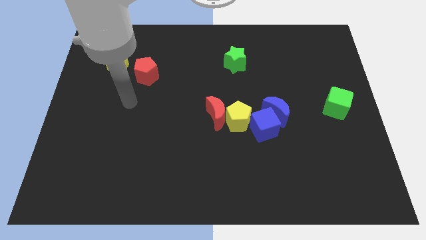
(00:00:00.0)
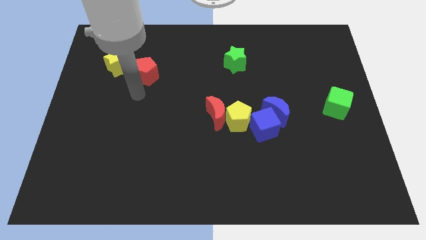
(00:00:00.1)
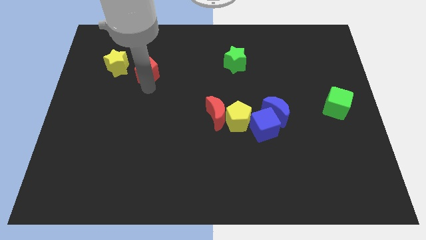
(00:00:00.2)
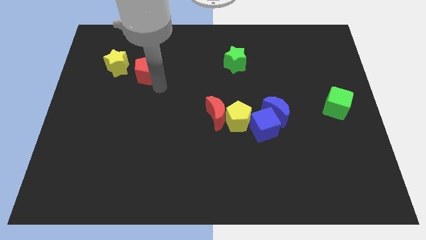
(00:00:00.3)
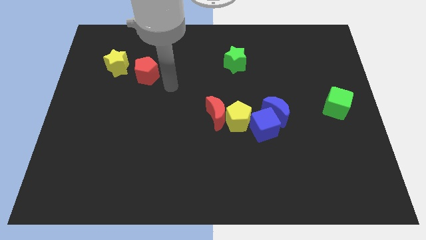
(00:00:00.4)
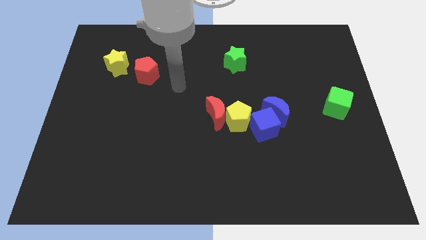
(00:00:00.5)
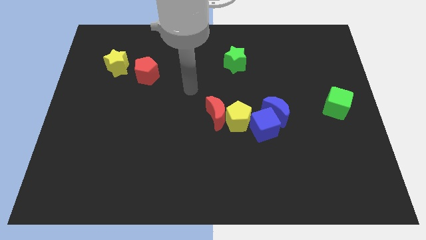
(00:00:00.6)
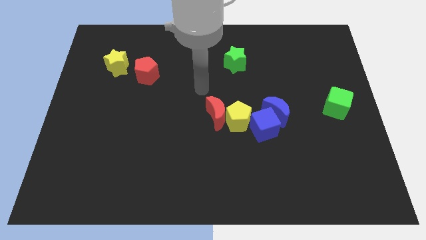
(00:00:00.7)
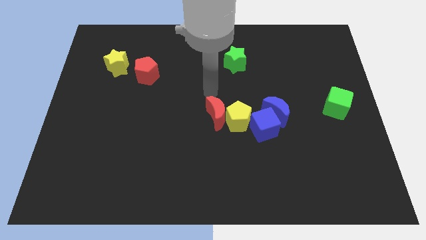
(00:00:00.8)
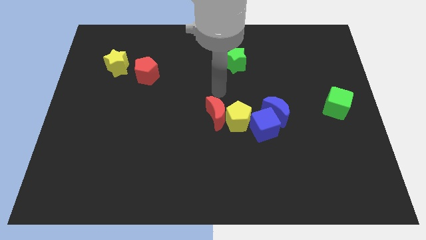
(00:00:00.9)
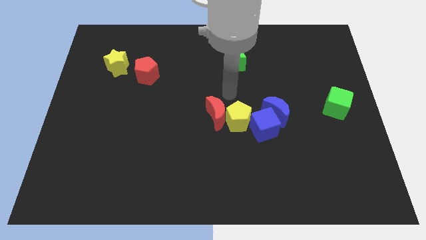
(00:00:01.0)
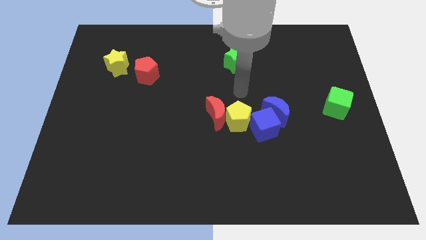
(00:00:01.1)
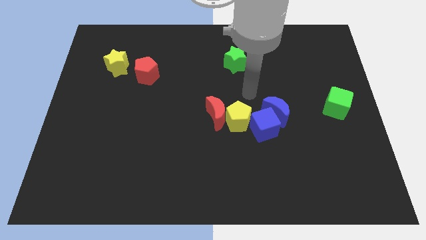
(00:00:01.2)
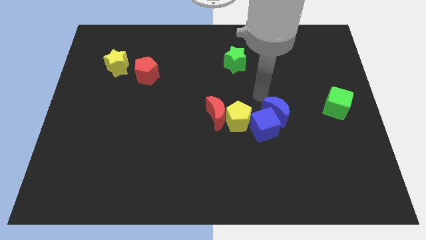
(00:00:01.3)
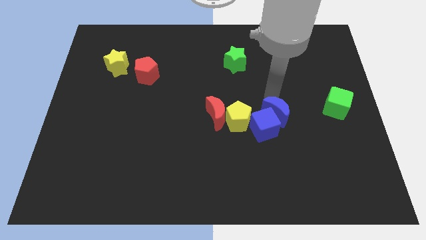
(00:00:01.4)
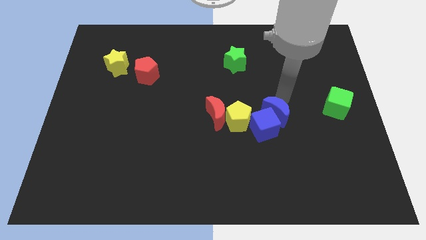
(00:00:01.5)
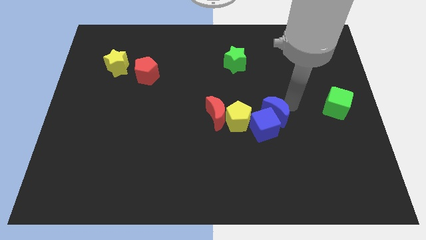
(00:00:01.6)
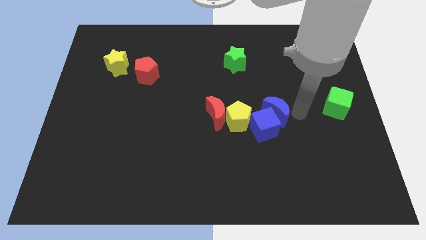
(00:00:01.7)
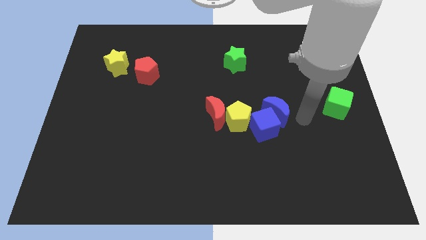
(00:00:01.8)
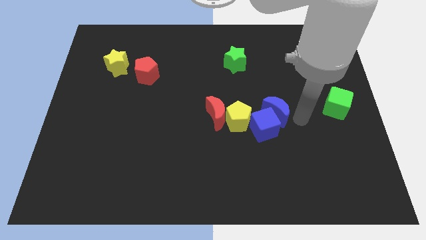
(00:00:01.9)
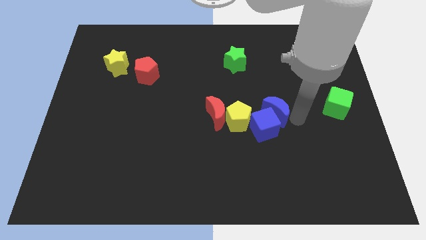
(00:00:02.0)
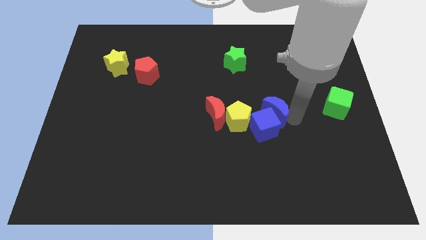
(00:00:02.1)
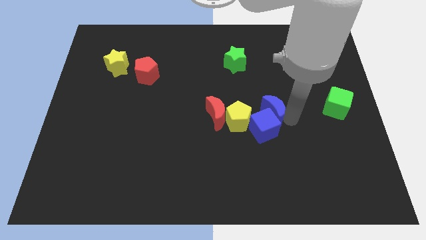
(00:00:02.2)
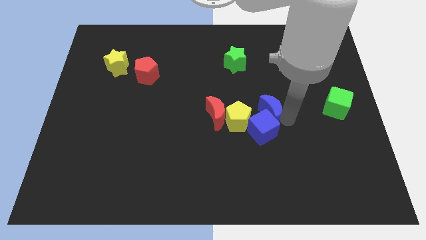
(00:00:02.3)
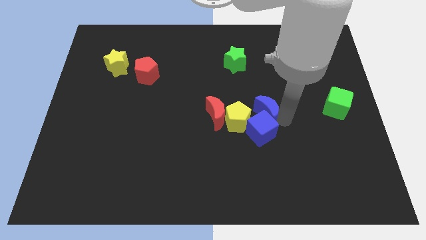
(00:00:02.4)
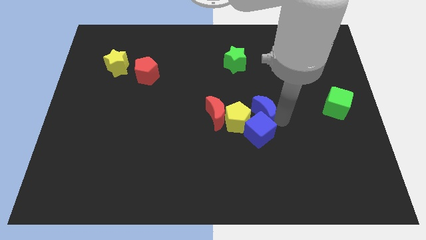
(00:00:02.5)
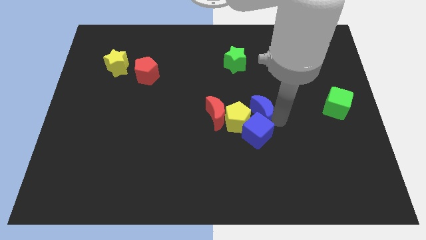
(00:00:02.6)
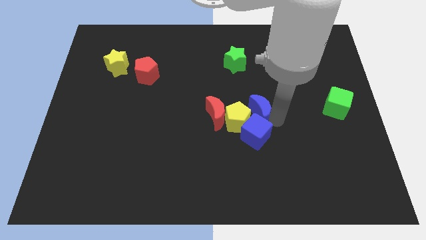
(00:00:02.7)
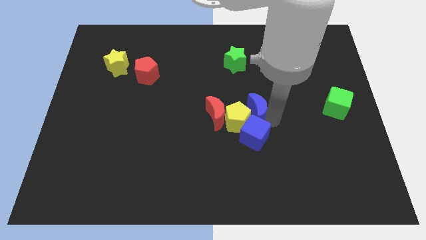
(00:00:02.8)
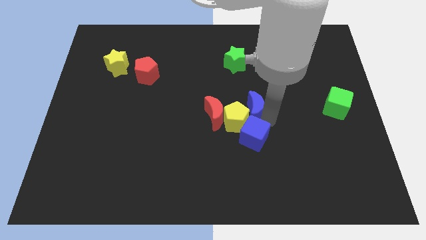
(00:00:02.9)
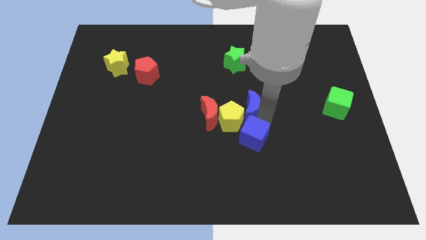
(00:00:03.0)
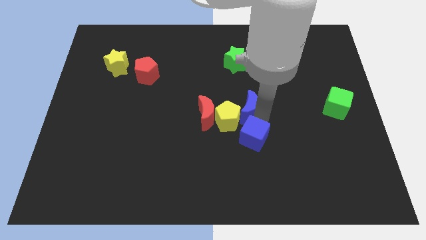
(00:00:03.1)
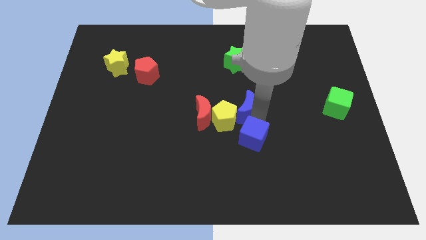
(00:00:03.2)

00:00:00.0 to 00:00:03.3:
slightly slide the blue moon to the left

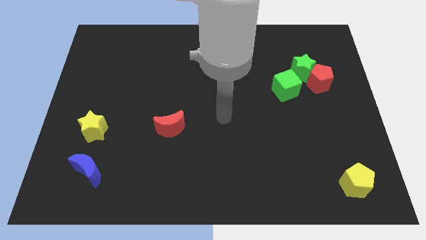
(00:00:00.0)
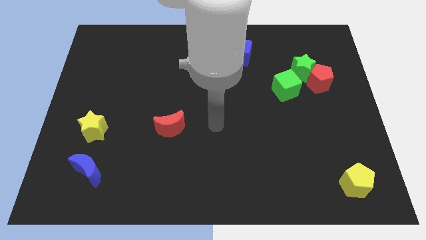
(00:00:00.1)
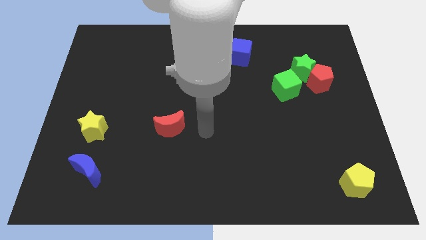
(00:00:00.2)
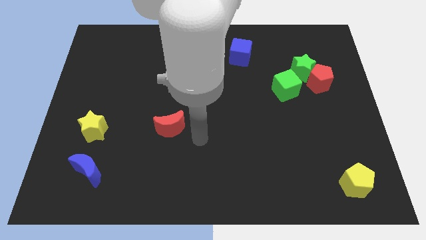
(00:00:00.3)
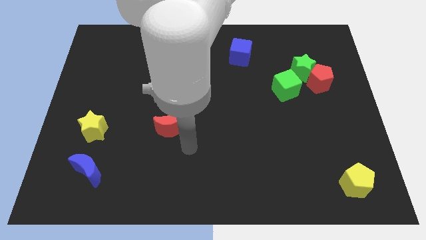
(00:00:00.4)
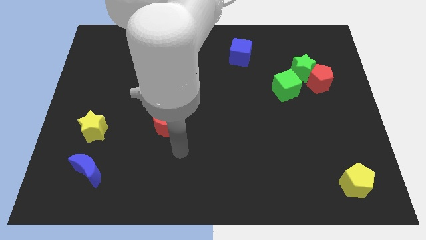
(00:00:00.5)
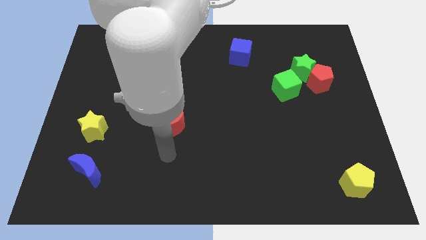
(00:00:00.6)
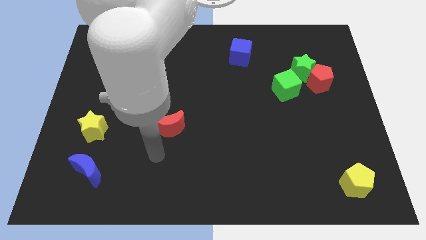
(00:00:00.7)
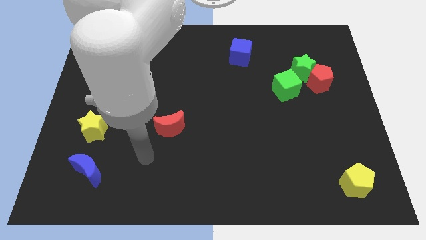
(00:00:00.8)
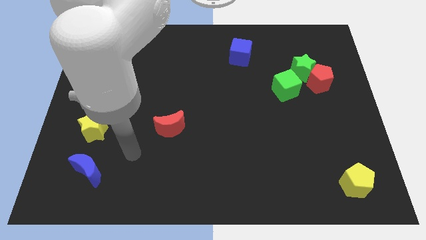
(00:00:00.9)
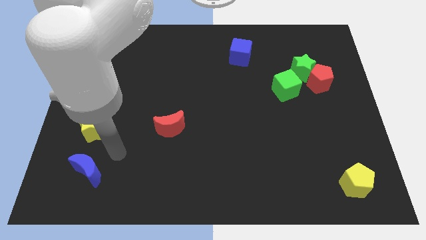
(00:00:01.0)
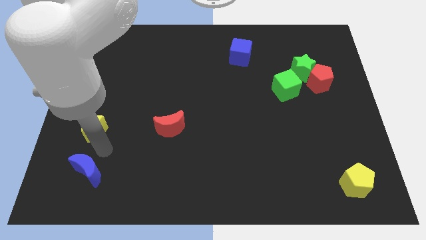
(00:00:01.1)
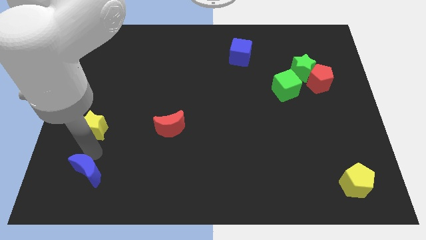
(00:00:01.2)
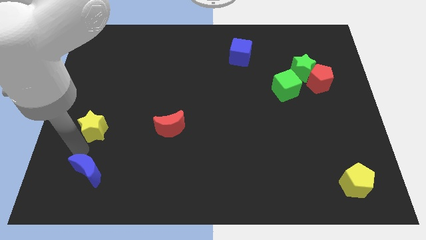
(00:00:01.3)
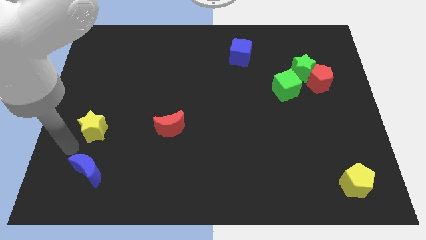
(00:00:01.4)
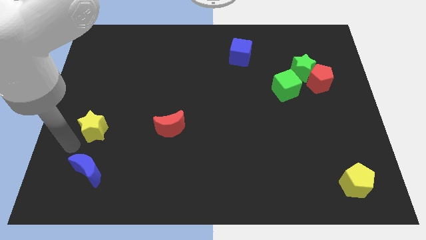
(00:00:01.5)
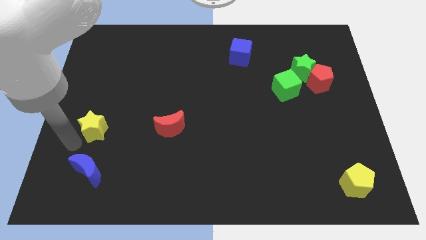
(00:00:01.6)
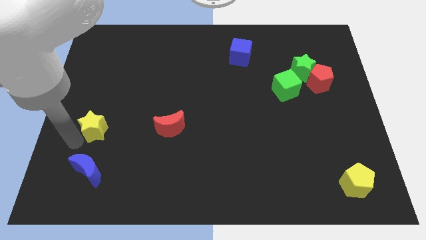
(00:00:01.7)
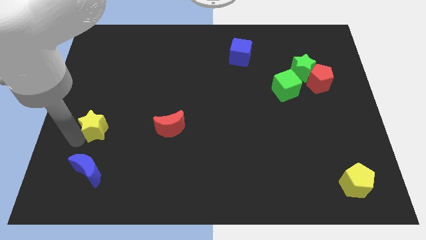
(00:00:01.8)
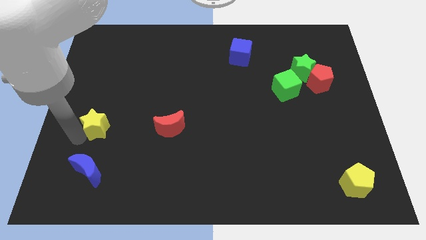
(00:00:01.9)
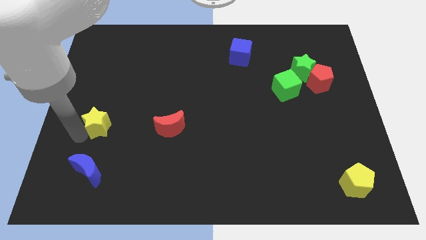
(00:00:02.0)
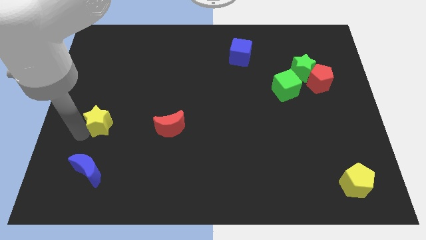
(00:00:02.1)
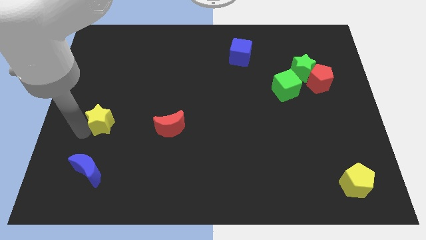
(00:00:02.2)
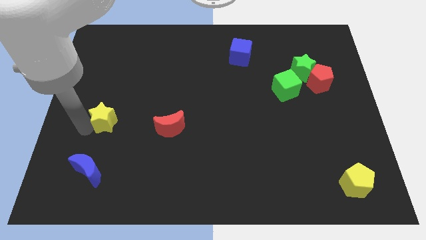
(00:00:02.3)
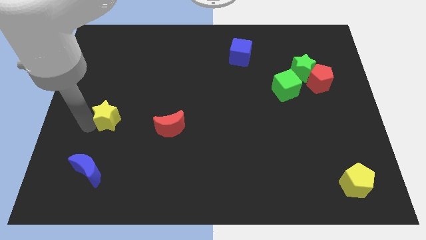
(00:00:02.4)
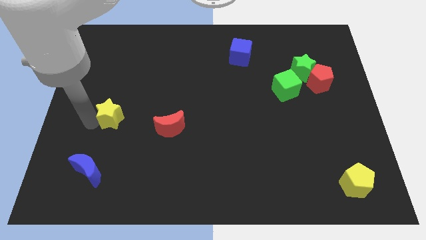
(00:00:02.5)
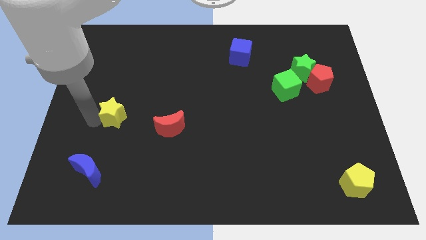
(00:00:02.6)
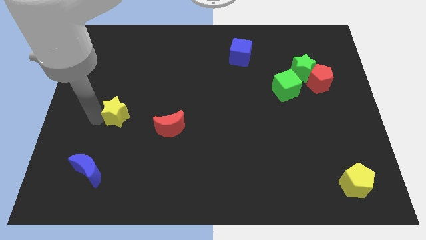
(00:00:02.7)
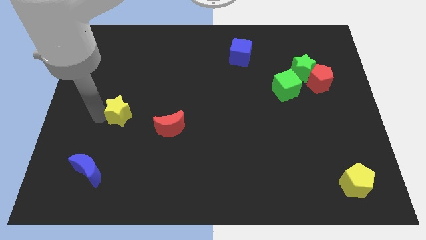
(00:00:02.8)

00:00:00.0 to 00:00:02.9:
slightly slide the yellow star up and then right

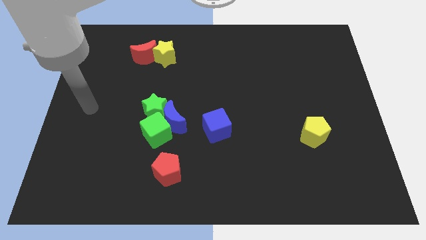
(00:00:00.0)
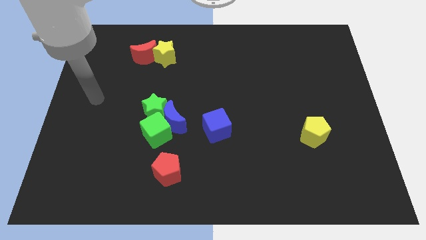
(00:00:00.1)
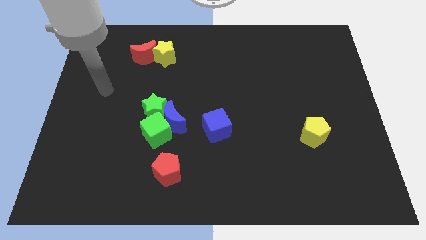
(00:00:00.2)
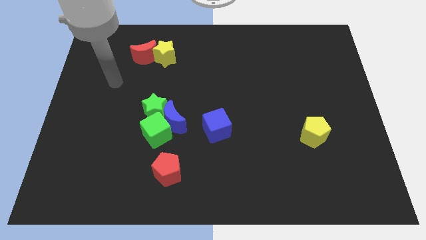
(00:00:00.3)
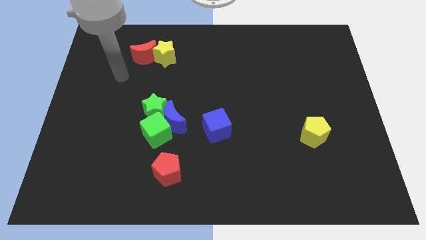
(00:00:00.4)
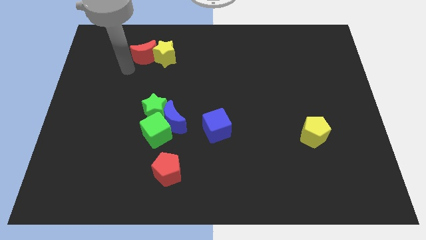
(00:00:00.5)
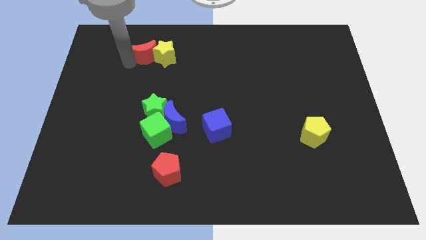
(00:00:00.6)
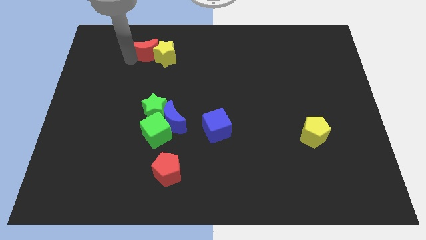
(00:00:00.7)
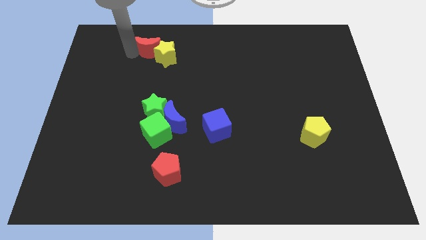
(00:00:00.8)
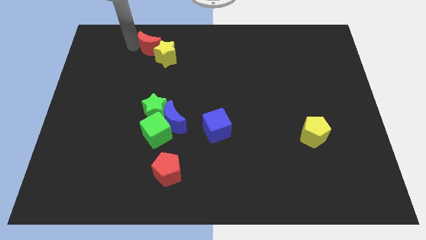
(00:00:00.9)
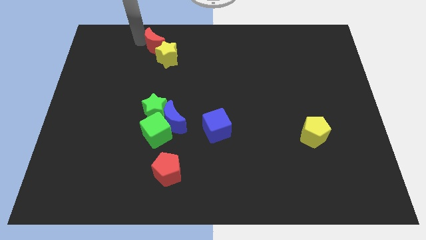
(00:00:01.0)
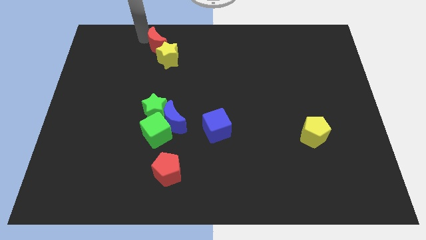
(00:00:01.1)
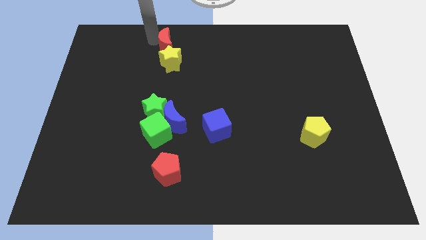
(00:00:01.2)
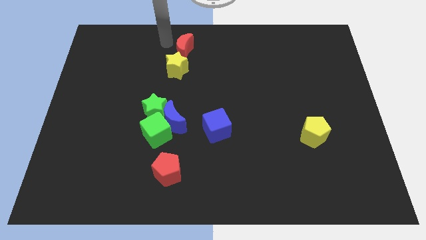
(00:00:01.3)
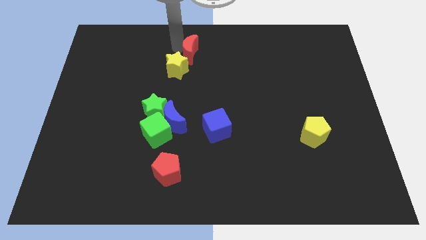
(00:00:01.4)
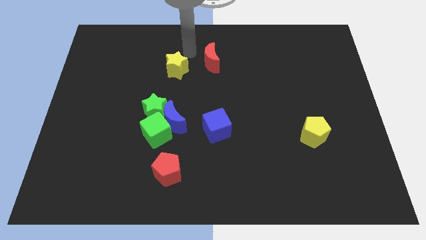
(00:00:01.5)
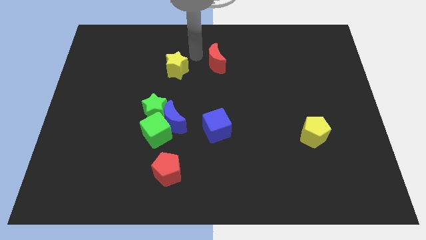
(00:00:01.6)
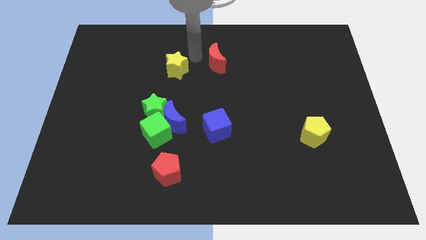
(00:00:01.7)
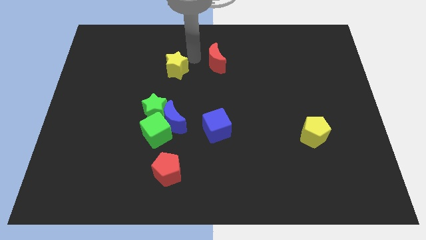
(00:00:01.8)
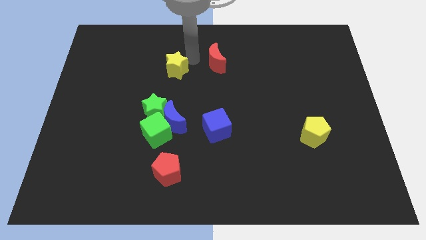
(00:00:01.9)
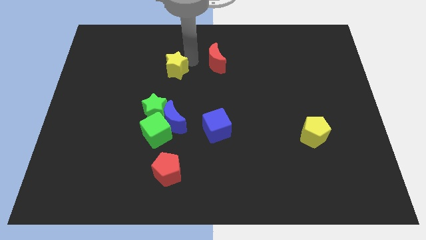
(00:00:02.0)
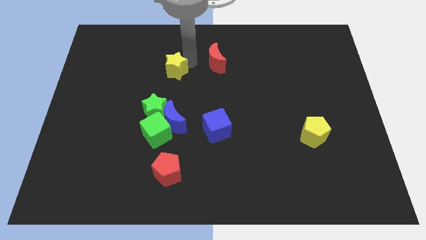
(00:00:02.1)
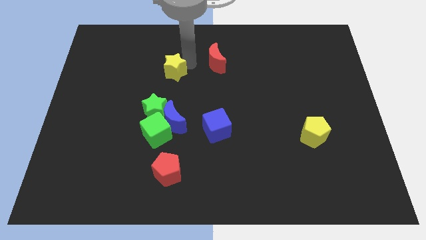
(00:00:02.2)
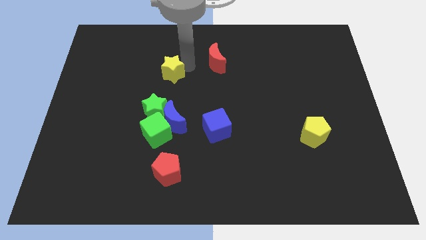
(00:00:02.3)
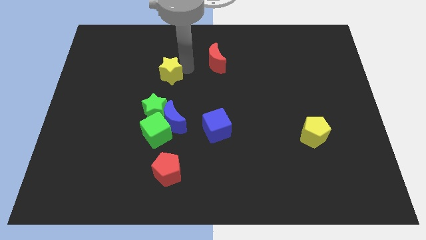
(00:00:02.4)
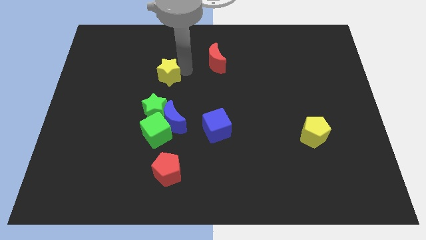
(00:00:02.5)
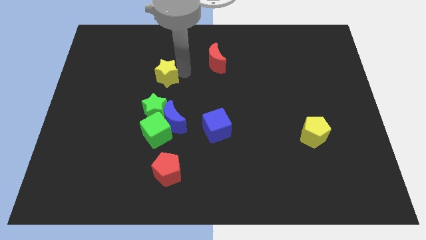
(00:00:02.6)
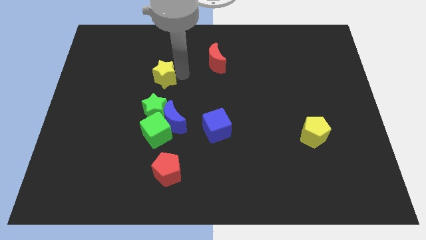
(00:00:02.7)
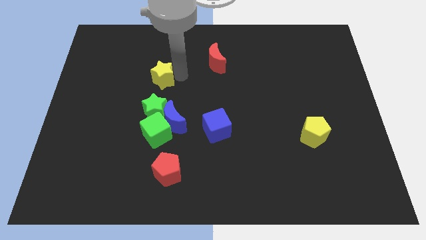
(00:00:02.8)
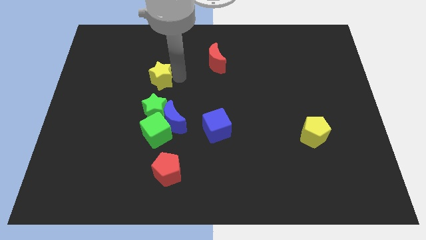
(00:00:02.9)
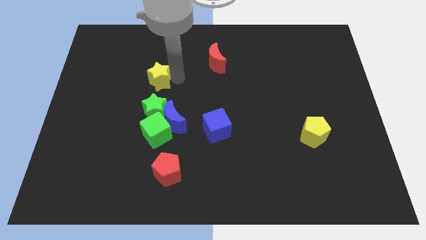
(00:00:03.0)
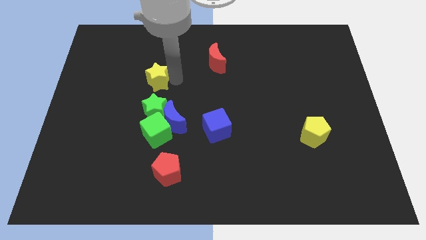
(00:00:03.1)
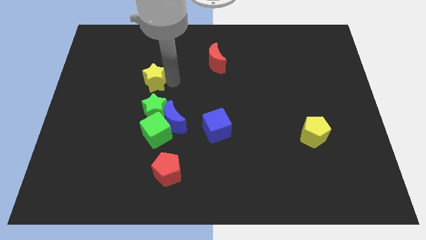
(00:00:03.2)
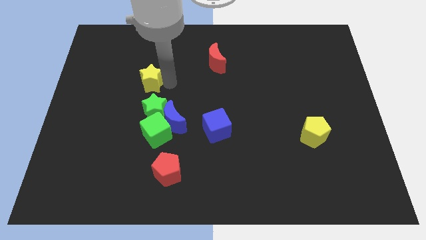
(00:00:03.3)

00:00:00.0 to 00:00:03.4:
push the yellow star slightly downwards and to the left diagonally
